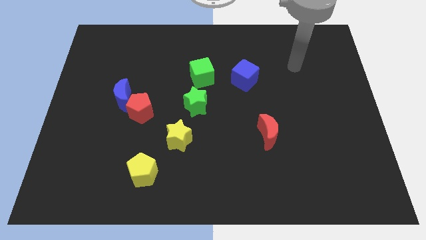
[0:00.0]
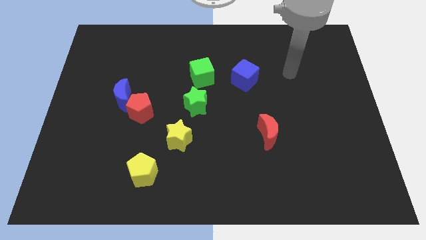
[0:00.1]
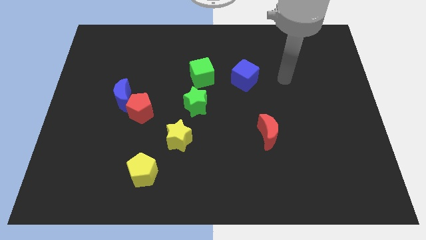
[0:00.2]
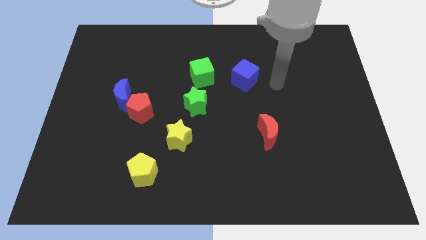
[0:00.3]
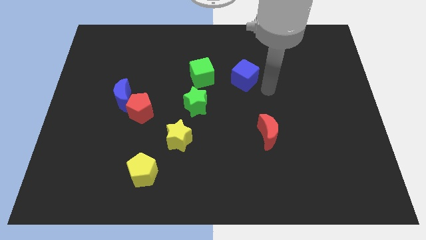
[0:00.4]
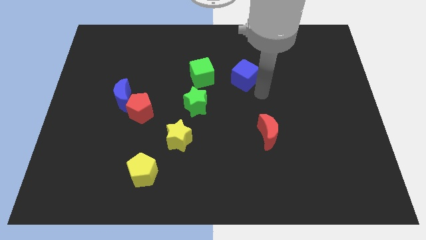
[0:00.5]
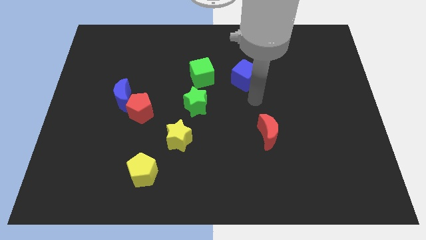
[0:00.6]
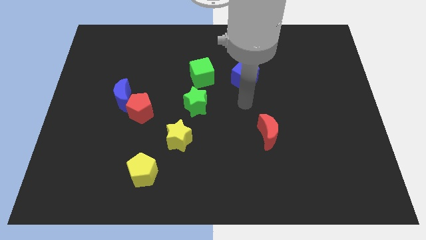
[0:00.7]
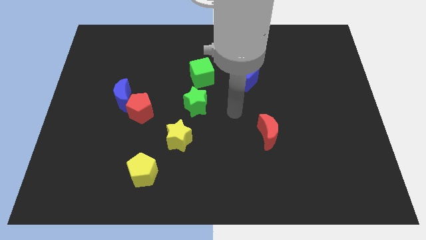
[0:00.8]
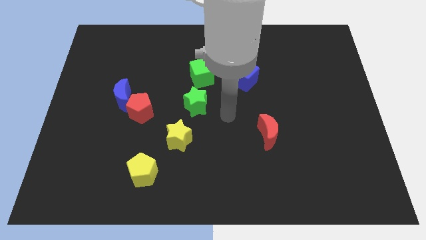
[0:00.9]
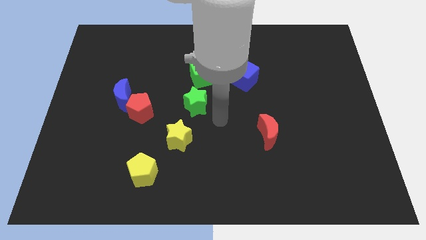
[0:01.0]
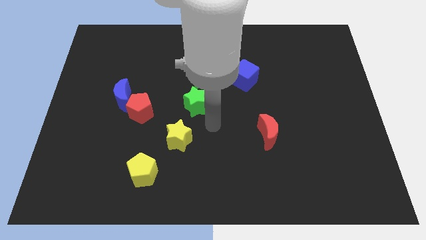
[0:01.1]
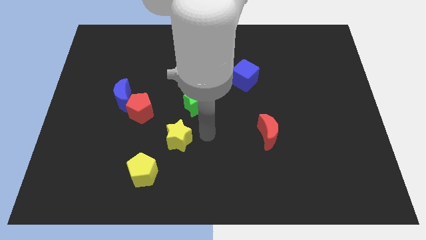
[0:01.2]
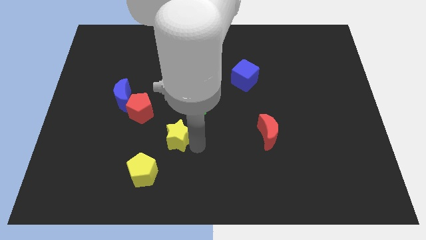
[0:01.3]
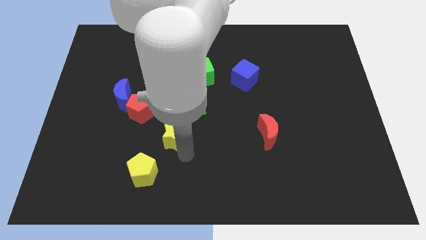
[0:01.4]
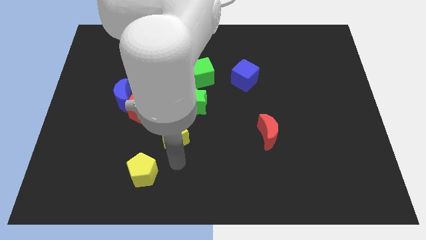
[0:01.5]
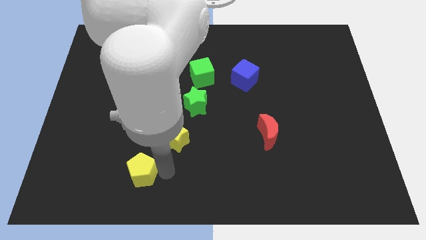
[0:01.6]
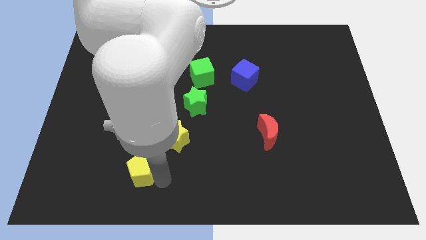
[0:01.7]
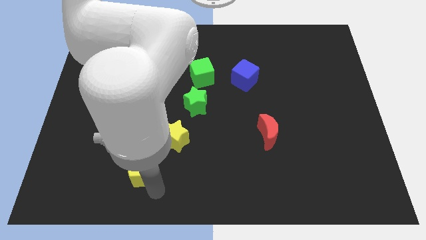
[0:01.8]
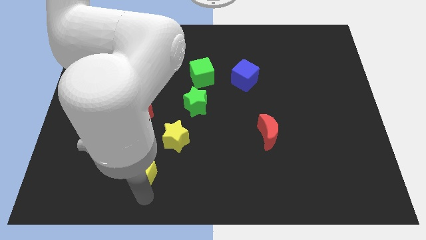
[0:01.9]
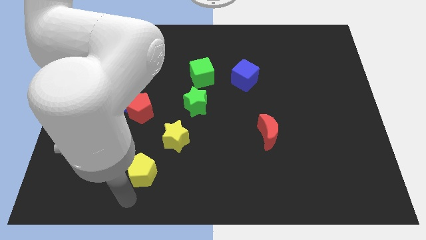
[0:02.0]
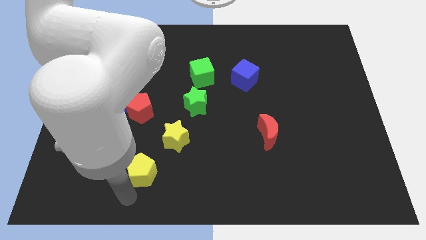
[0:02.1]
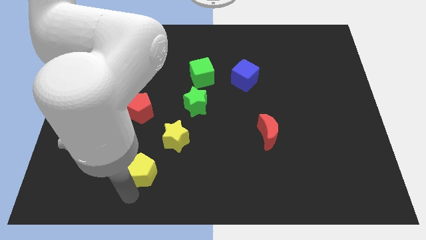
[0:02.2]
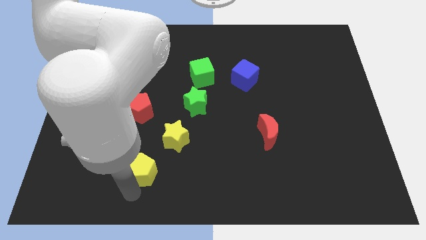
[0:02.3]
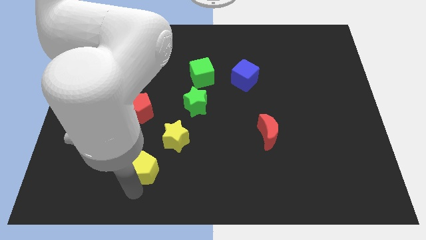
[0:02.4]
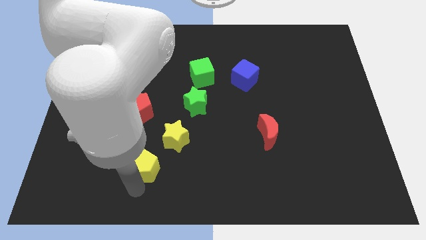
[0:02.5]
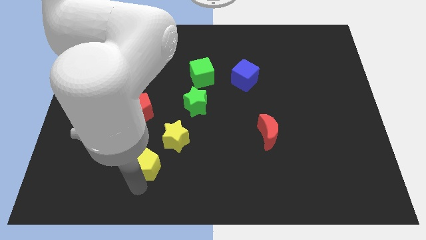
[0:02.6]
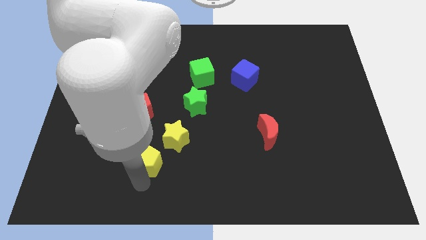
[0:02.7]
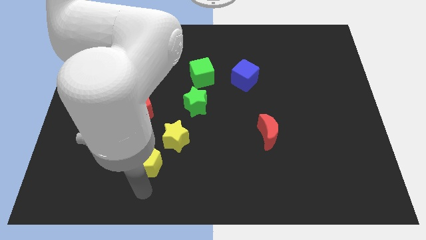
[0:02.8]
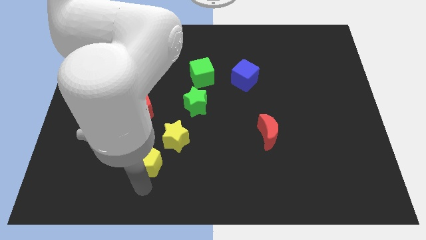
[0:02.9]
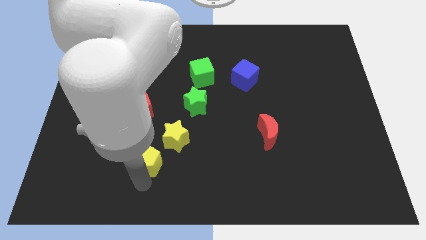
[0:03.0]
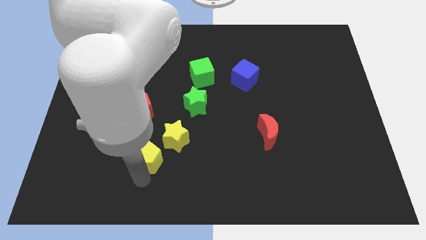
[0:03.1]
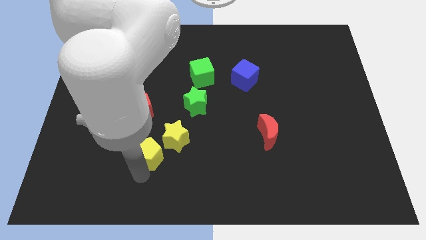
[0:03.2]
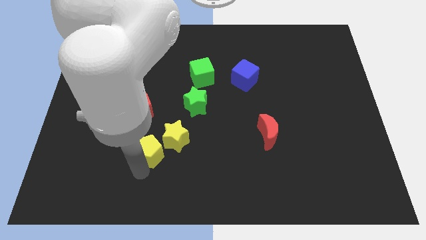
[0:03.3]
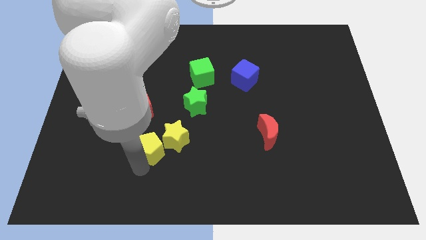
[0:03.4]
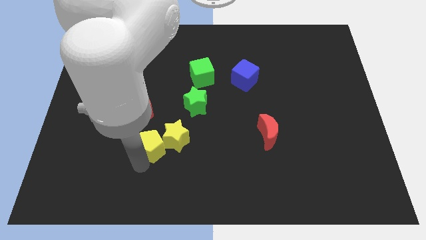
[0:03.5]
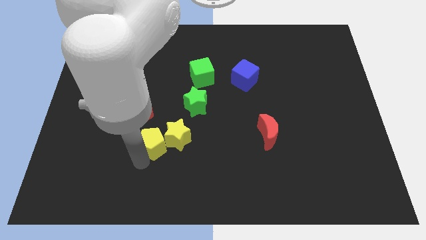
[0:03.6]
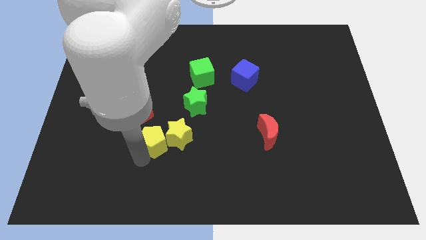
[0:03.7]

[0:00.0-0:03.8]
slightly move the yellow pentagon upwards

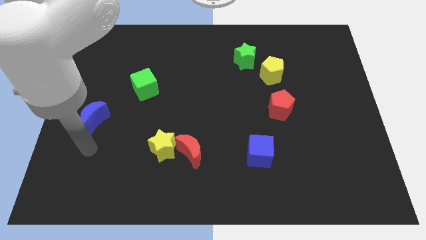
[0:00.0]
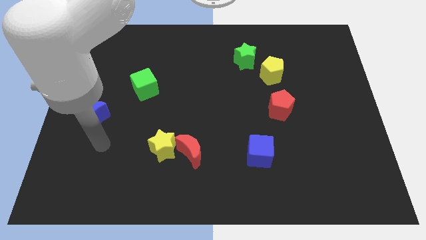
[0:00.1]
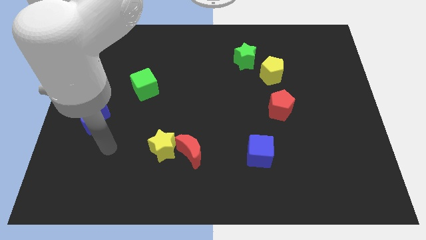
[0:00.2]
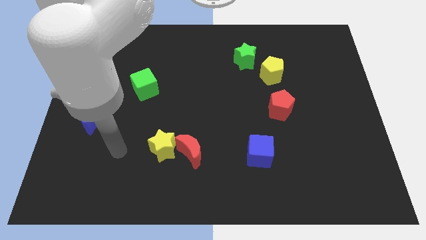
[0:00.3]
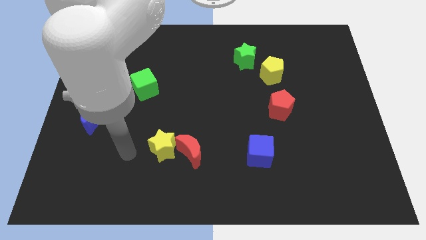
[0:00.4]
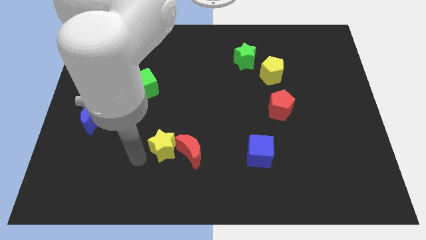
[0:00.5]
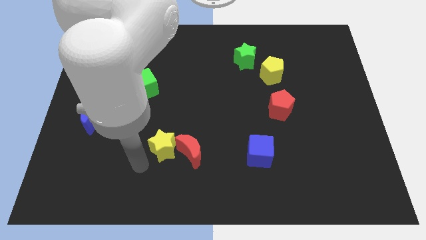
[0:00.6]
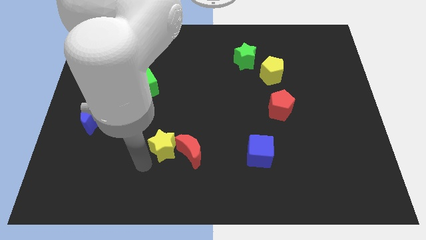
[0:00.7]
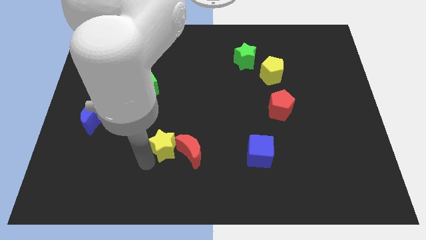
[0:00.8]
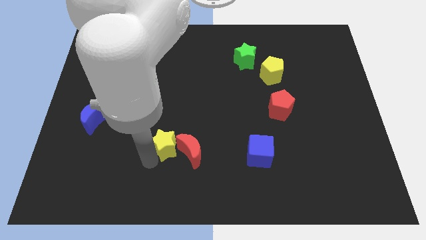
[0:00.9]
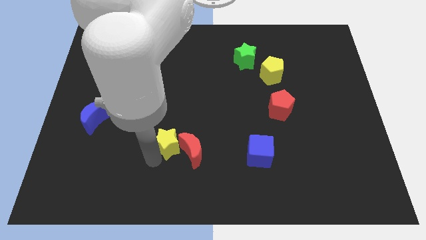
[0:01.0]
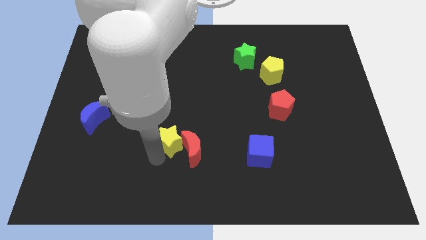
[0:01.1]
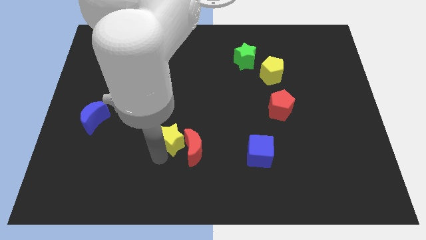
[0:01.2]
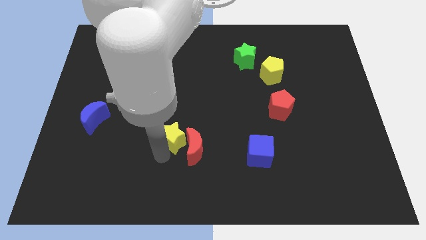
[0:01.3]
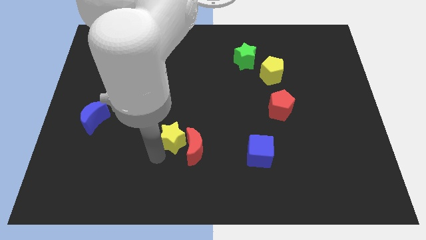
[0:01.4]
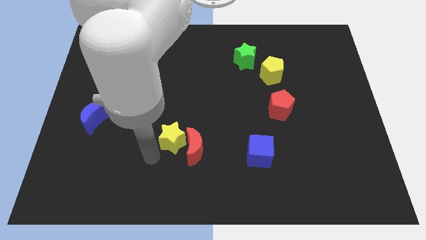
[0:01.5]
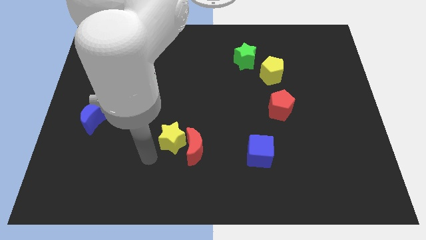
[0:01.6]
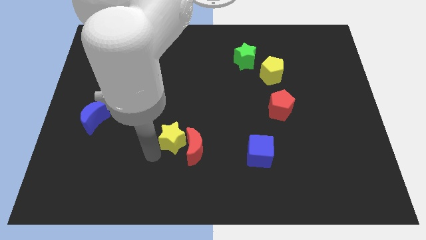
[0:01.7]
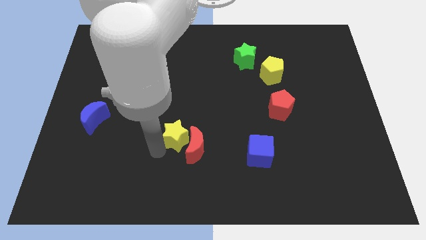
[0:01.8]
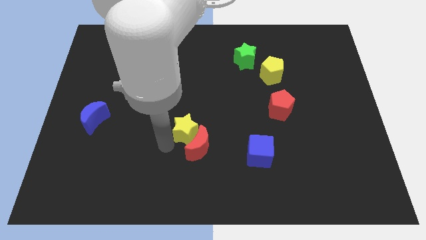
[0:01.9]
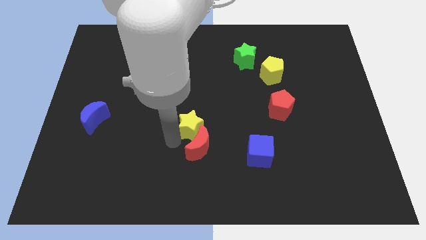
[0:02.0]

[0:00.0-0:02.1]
push the yellow star up and then to the right somewhat

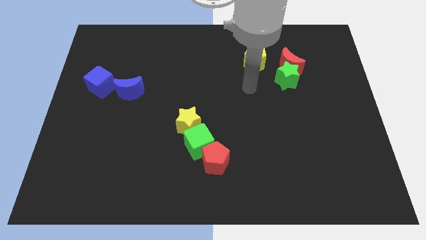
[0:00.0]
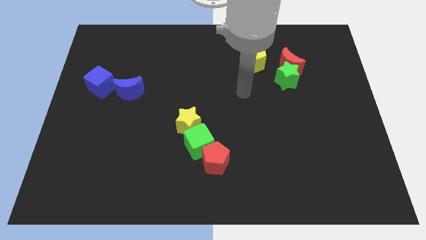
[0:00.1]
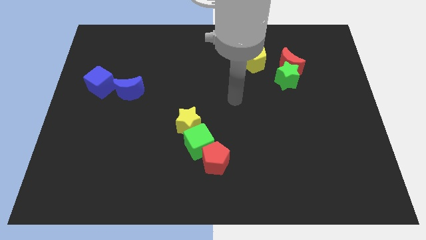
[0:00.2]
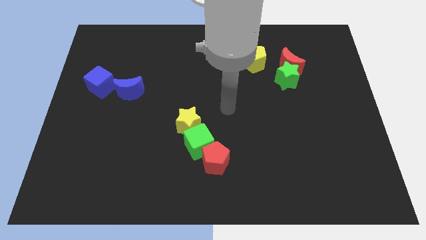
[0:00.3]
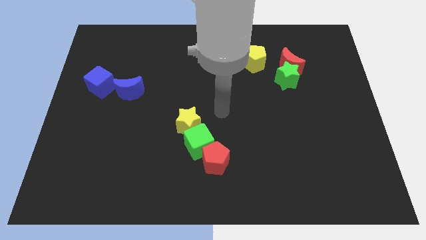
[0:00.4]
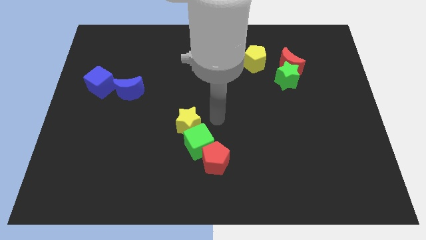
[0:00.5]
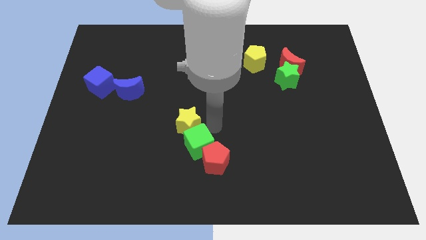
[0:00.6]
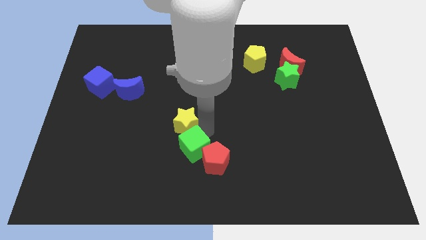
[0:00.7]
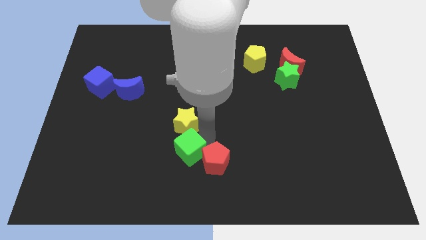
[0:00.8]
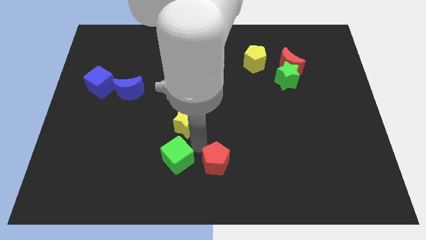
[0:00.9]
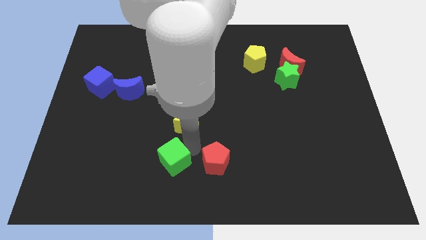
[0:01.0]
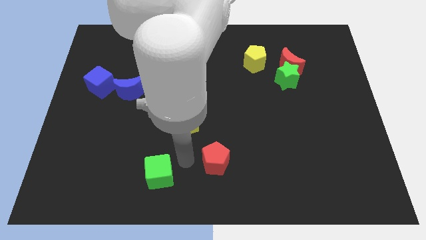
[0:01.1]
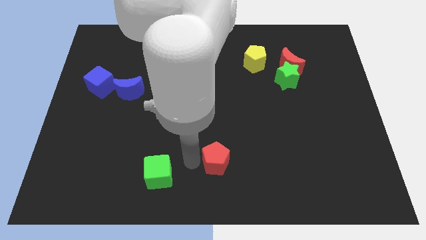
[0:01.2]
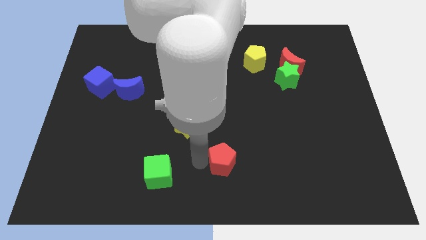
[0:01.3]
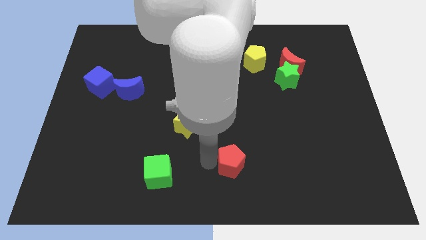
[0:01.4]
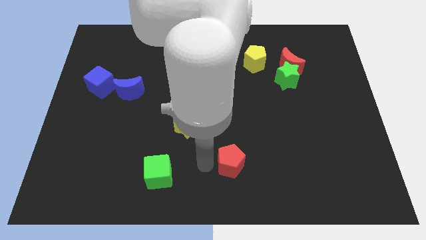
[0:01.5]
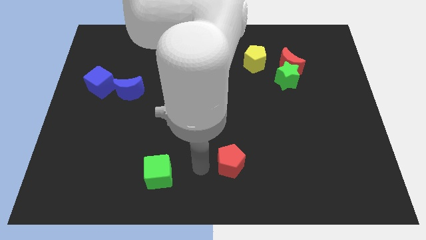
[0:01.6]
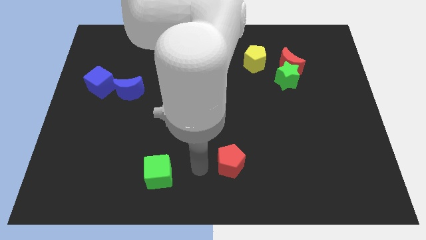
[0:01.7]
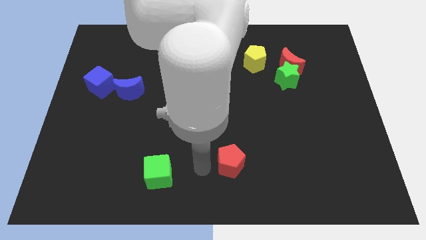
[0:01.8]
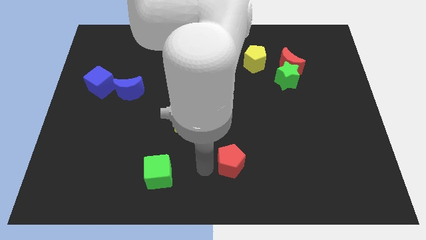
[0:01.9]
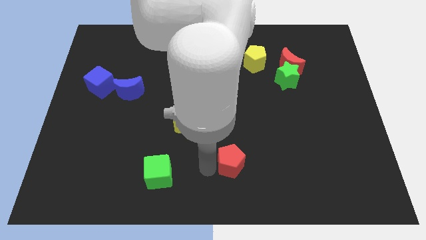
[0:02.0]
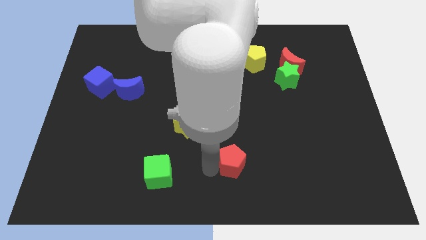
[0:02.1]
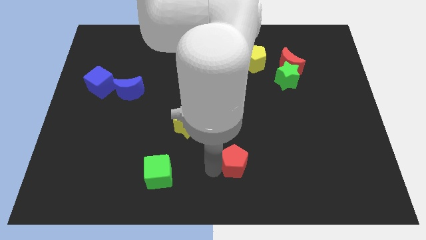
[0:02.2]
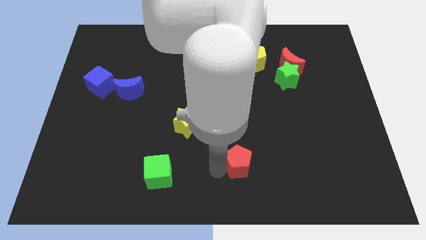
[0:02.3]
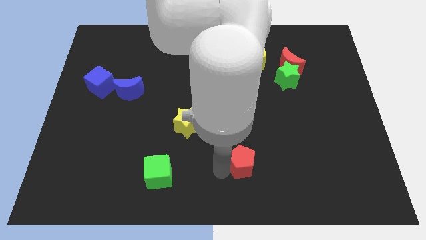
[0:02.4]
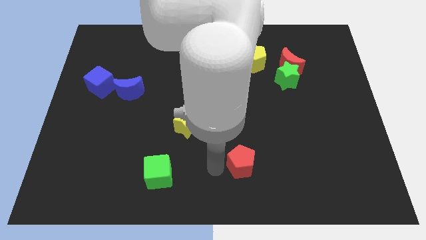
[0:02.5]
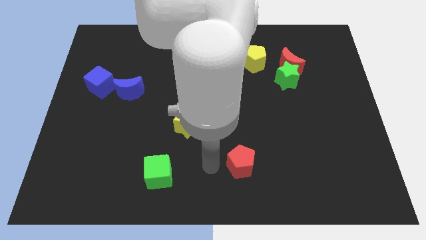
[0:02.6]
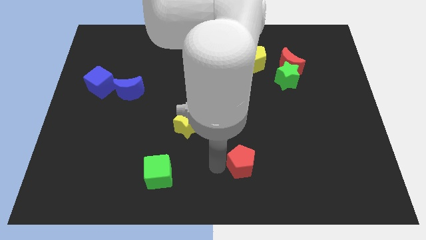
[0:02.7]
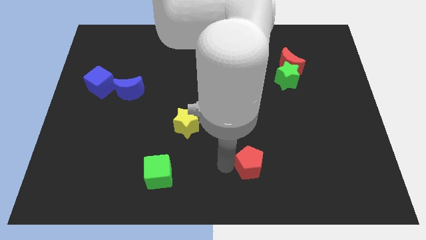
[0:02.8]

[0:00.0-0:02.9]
move the red pentagon to the right a little bit
